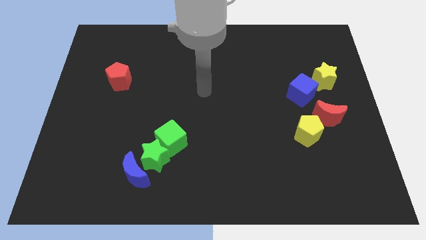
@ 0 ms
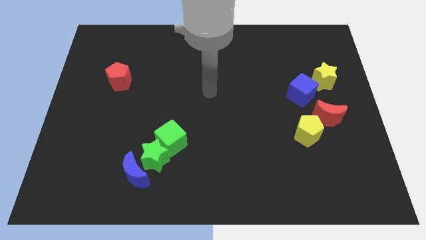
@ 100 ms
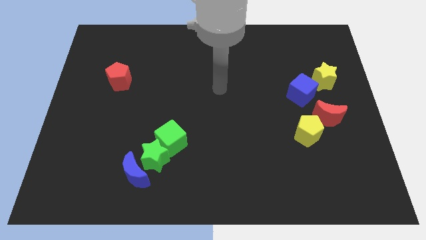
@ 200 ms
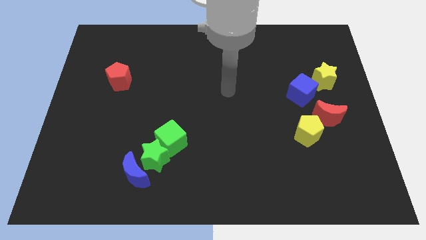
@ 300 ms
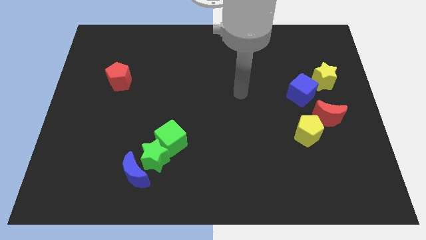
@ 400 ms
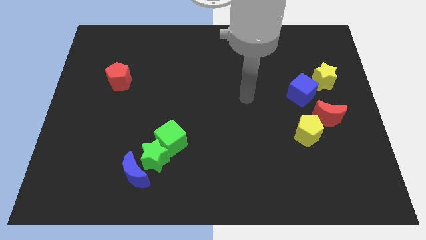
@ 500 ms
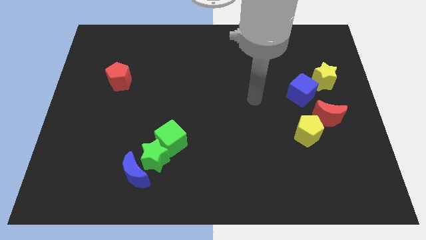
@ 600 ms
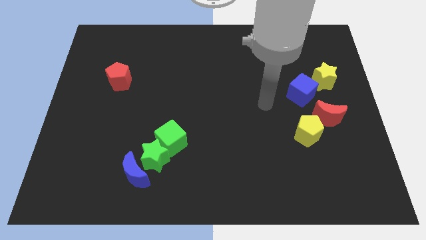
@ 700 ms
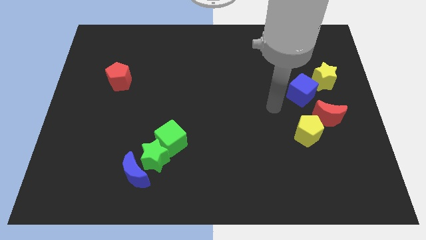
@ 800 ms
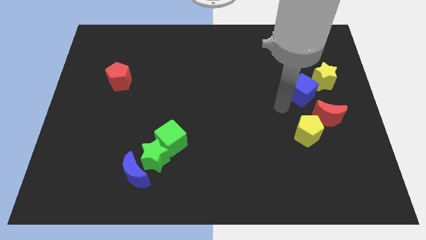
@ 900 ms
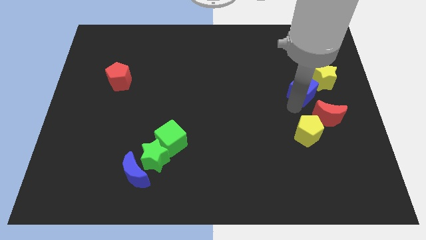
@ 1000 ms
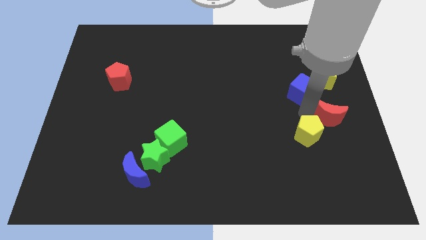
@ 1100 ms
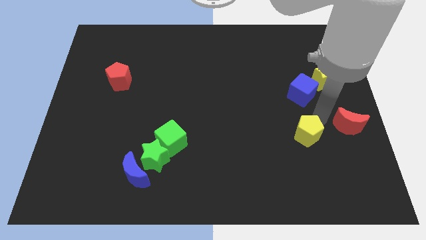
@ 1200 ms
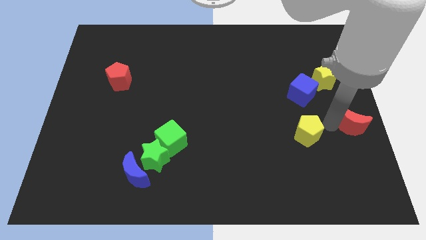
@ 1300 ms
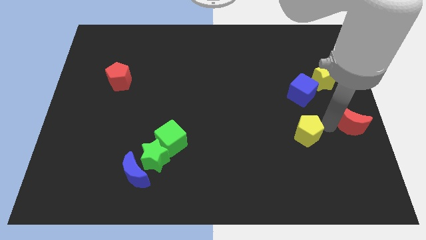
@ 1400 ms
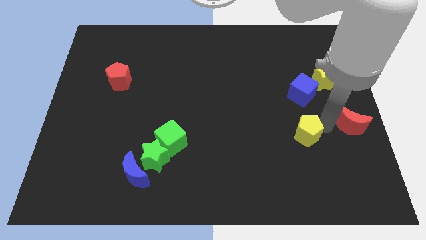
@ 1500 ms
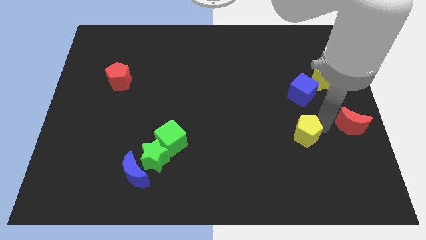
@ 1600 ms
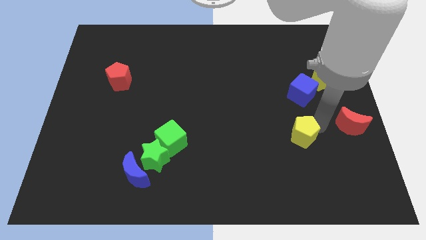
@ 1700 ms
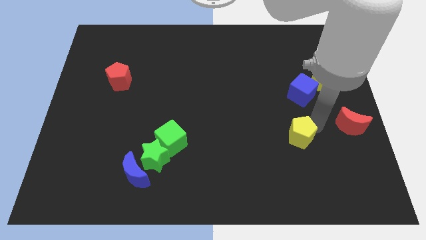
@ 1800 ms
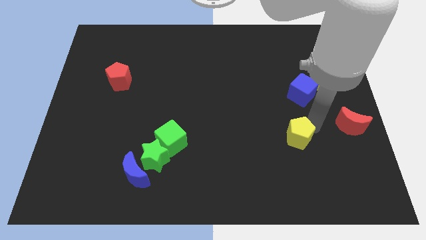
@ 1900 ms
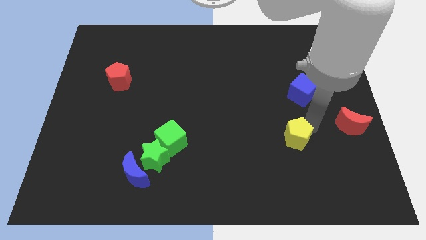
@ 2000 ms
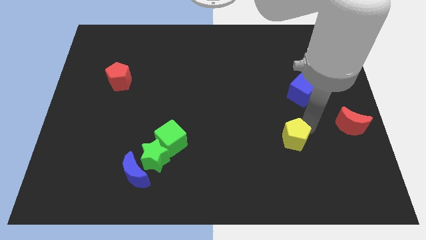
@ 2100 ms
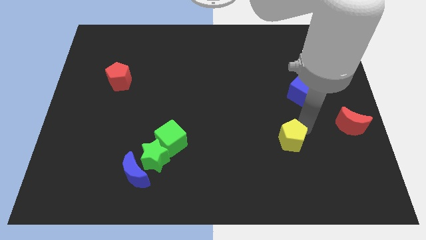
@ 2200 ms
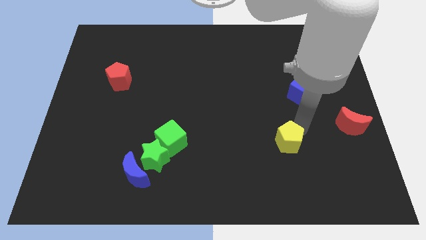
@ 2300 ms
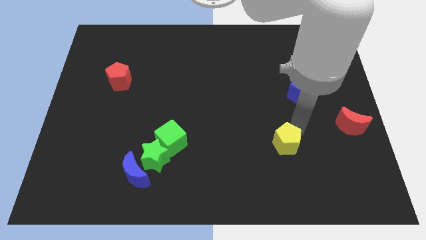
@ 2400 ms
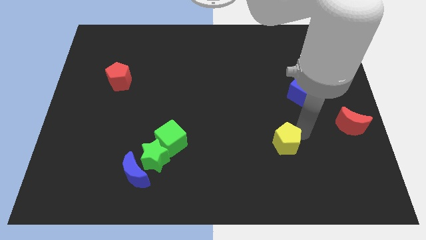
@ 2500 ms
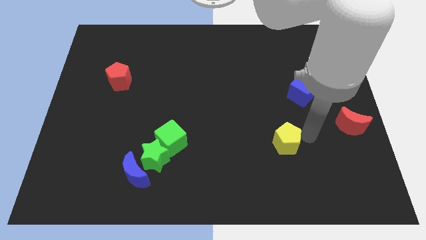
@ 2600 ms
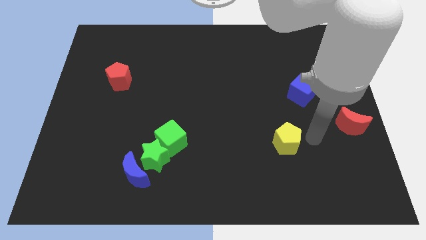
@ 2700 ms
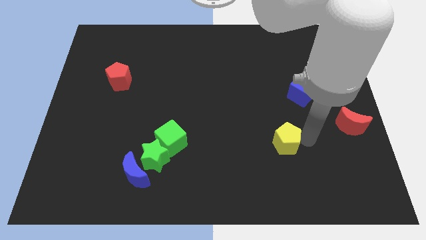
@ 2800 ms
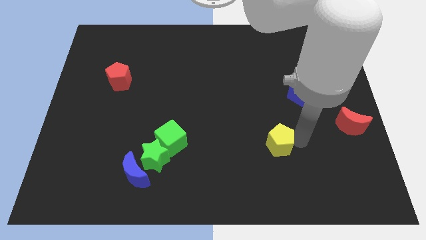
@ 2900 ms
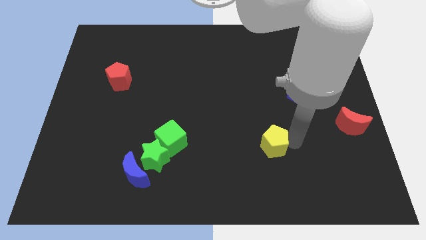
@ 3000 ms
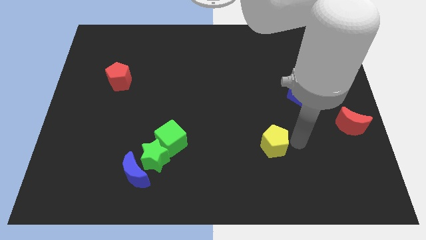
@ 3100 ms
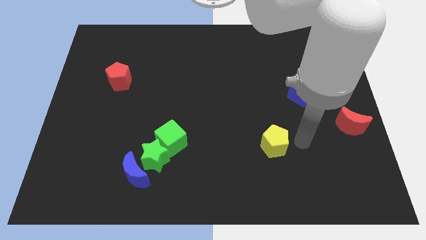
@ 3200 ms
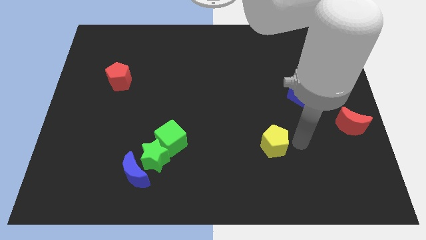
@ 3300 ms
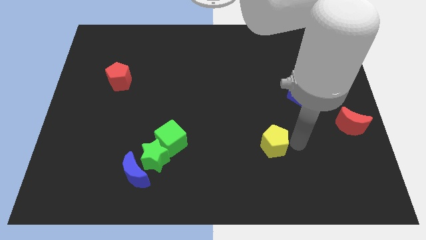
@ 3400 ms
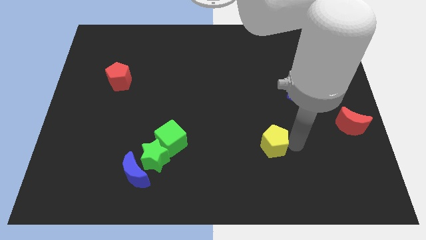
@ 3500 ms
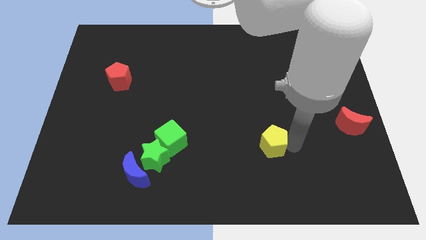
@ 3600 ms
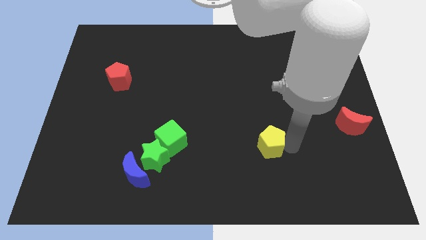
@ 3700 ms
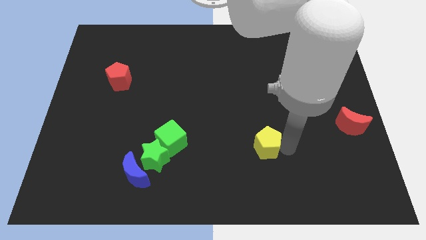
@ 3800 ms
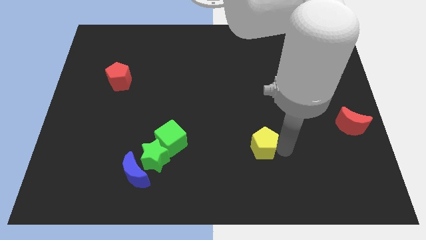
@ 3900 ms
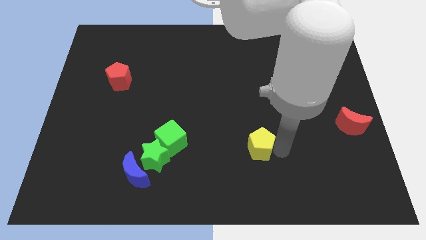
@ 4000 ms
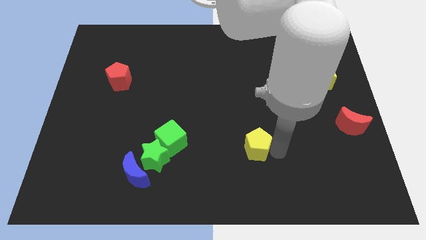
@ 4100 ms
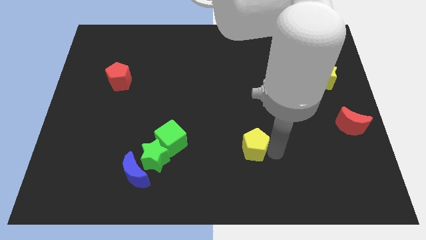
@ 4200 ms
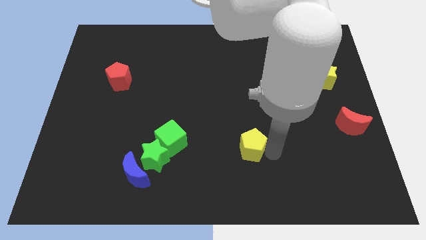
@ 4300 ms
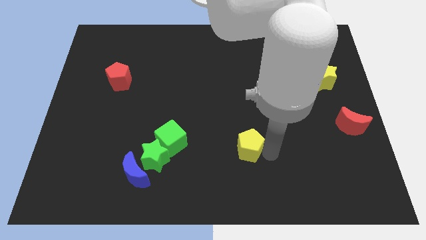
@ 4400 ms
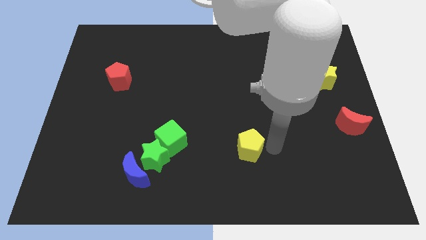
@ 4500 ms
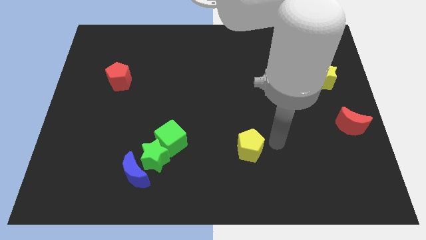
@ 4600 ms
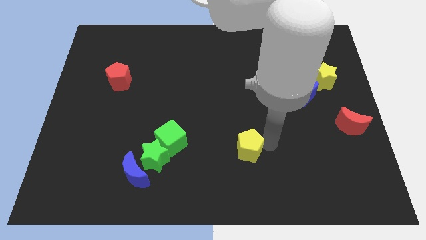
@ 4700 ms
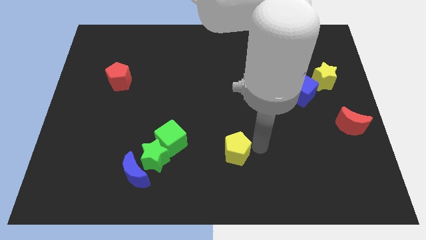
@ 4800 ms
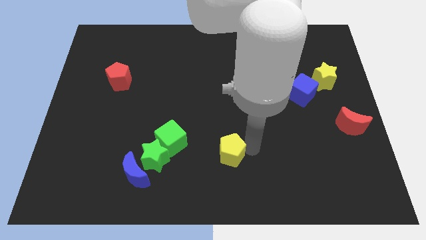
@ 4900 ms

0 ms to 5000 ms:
push the yellow pentagon just right of the green star

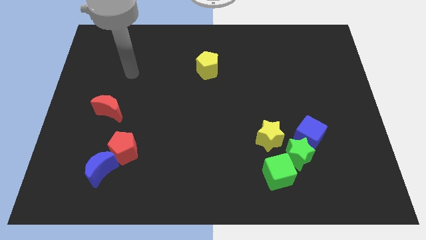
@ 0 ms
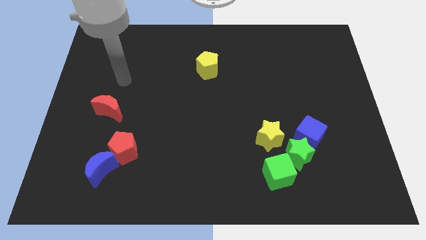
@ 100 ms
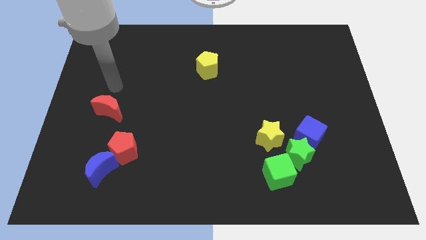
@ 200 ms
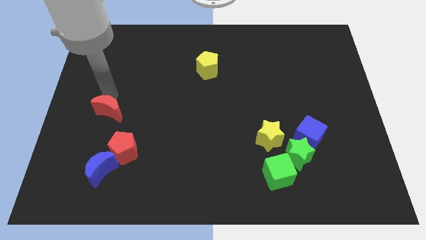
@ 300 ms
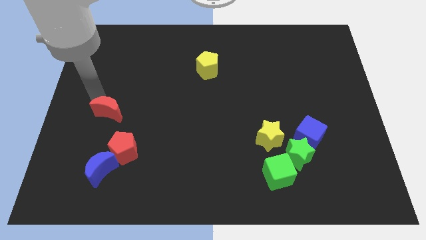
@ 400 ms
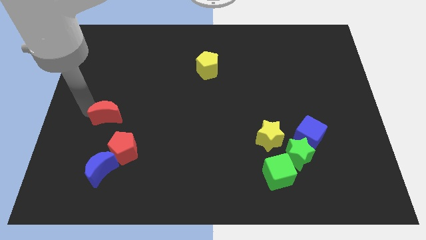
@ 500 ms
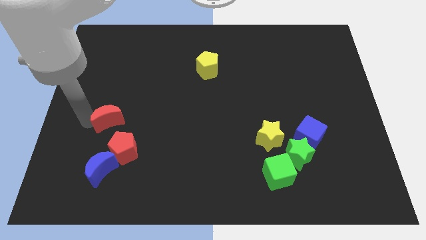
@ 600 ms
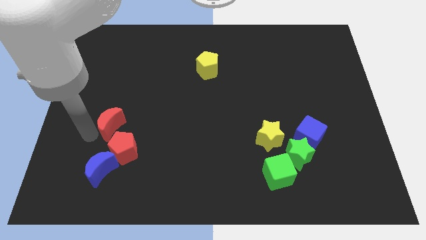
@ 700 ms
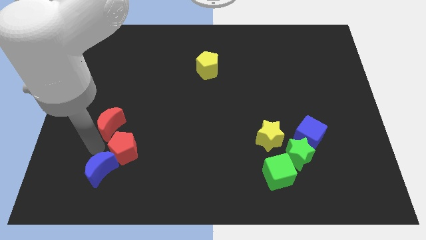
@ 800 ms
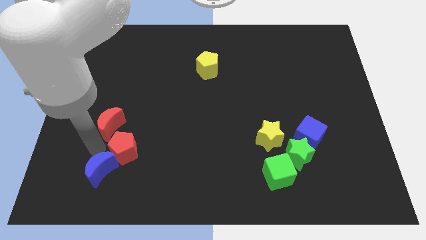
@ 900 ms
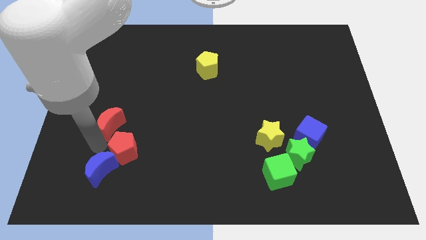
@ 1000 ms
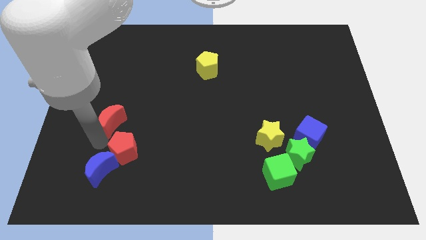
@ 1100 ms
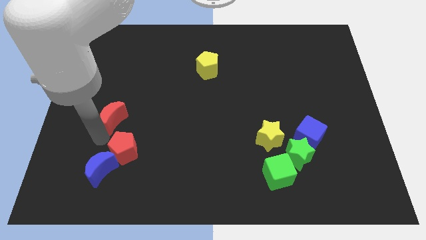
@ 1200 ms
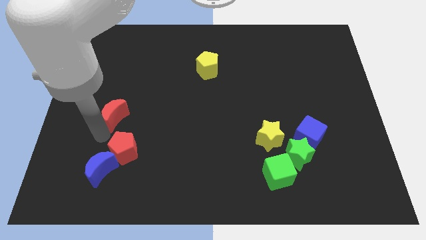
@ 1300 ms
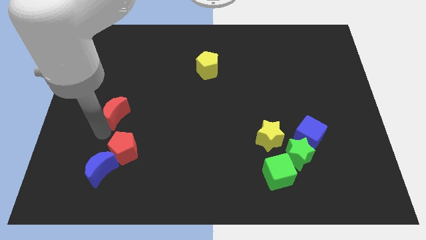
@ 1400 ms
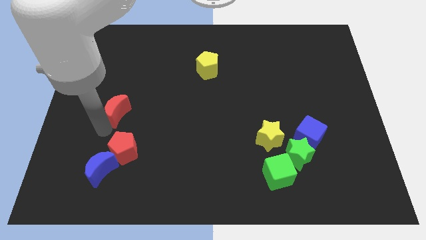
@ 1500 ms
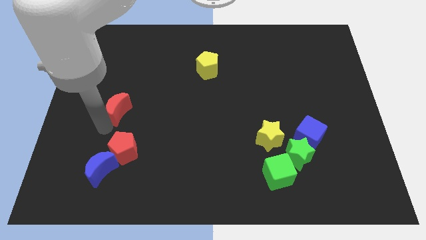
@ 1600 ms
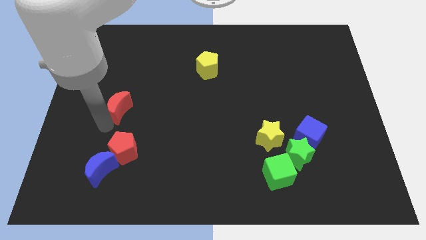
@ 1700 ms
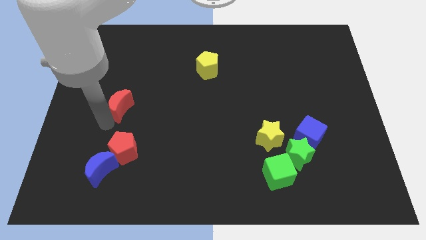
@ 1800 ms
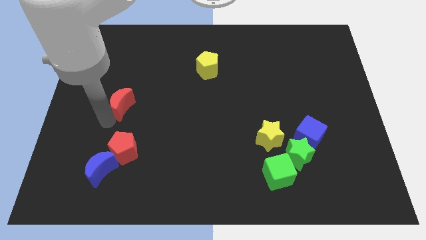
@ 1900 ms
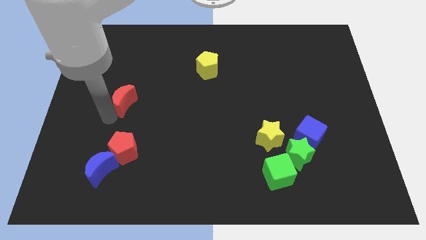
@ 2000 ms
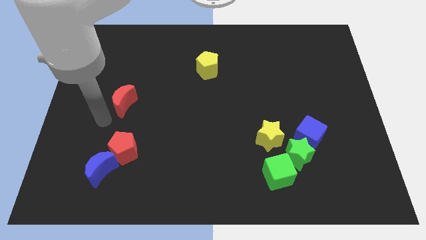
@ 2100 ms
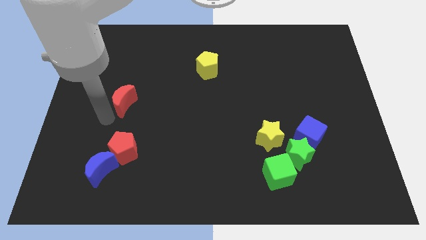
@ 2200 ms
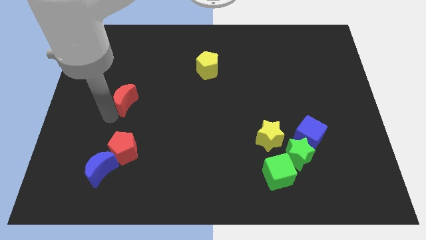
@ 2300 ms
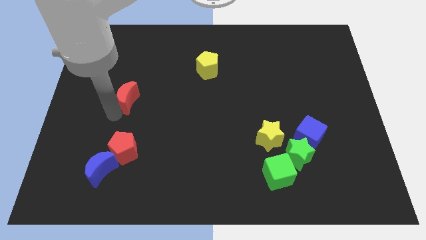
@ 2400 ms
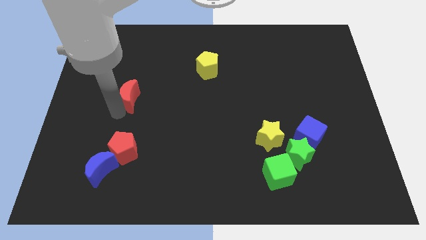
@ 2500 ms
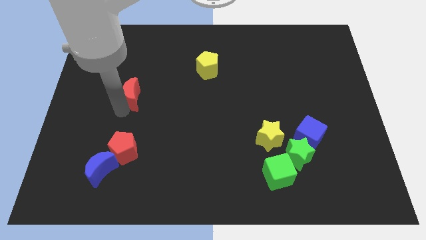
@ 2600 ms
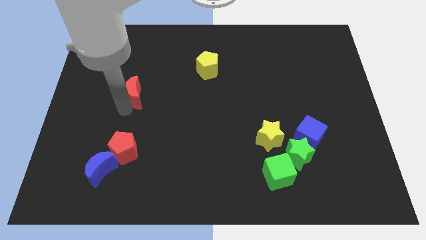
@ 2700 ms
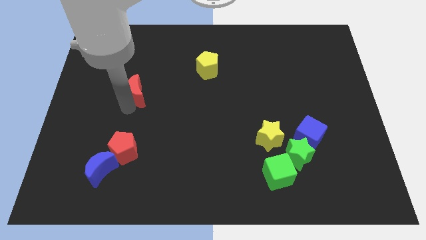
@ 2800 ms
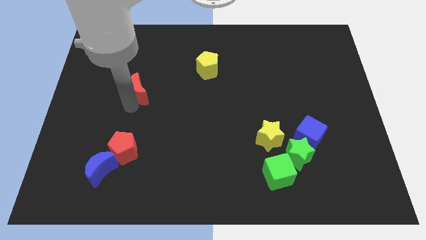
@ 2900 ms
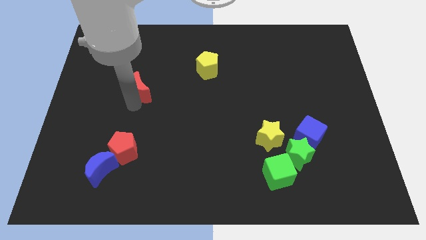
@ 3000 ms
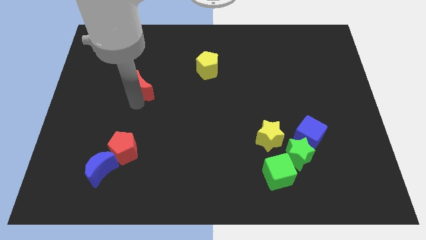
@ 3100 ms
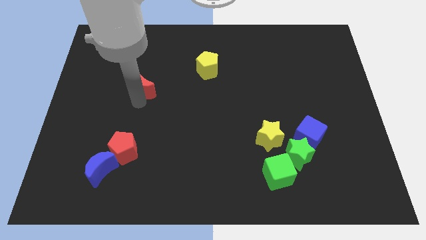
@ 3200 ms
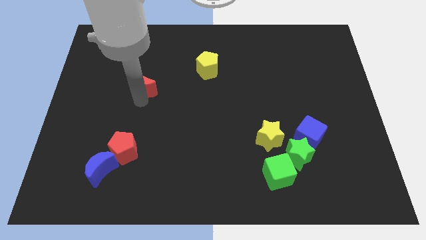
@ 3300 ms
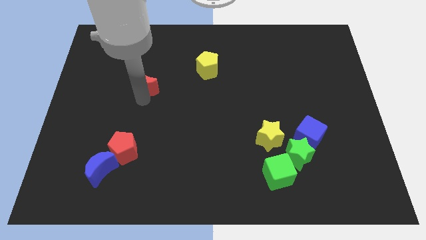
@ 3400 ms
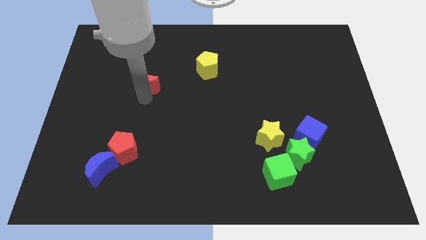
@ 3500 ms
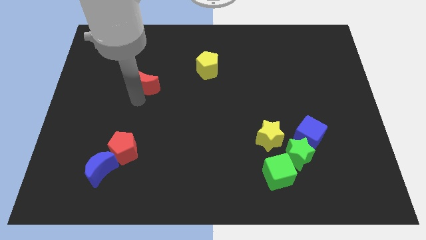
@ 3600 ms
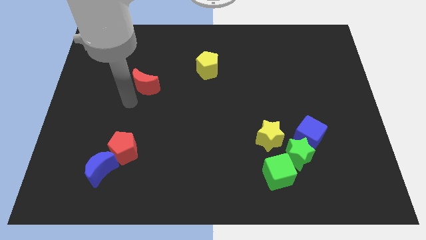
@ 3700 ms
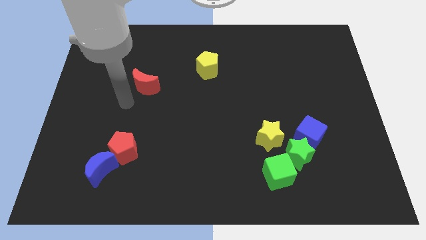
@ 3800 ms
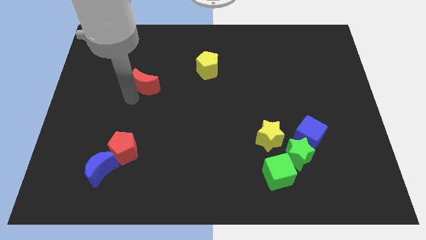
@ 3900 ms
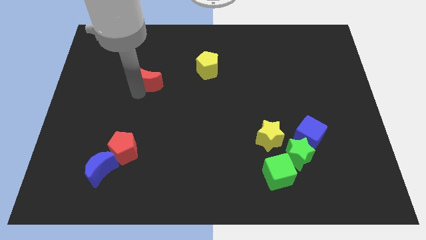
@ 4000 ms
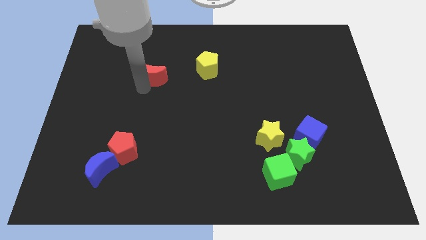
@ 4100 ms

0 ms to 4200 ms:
push the red moon to the left side of the yellow pentagon
